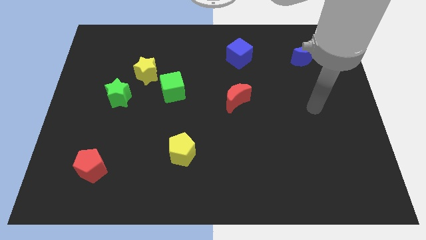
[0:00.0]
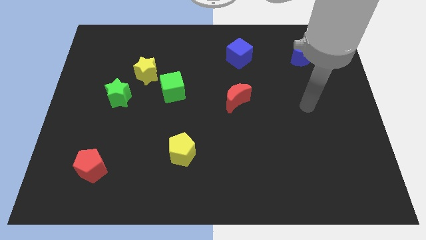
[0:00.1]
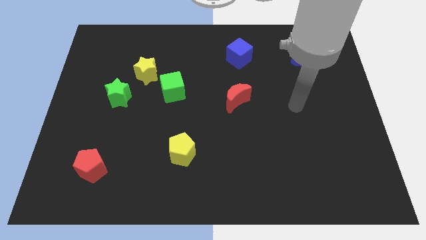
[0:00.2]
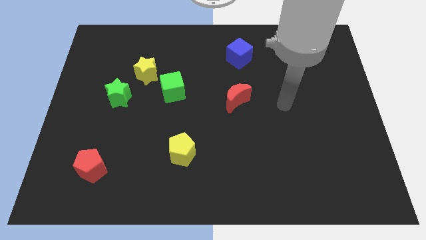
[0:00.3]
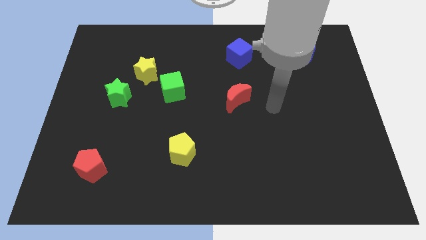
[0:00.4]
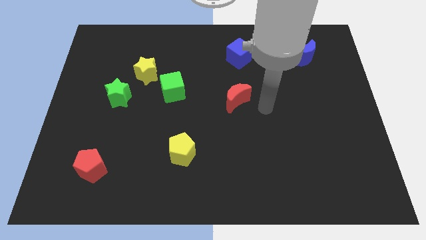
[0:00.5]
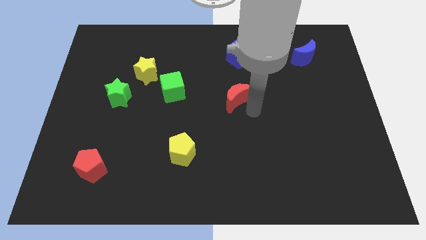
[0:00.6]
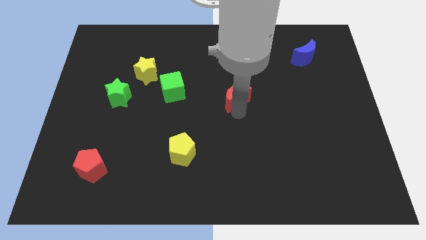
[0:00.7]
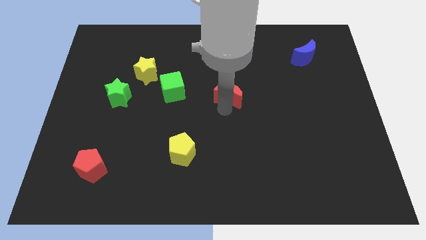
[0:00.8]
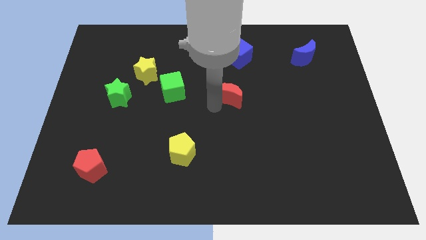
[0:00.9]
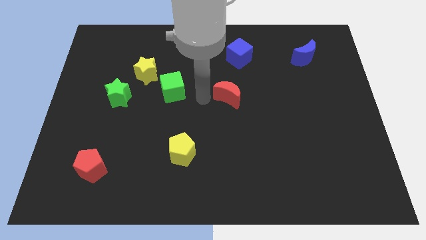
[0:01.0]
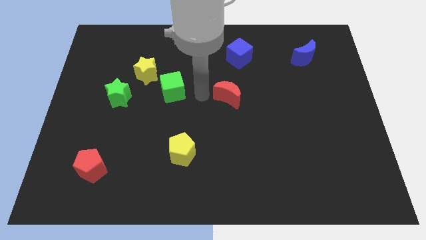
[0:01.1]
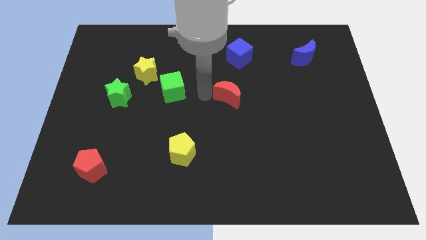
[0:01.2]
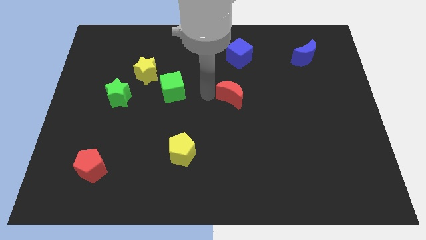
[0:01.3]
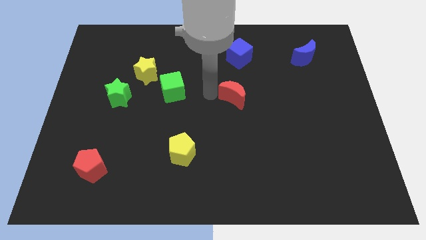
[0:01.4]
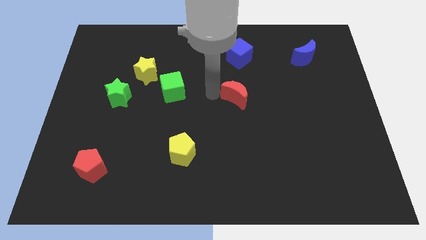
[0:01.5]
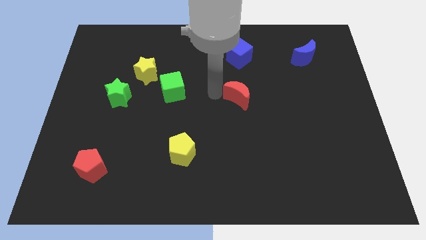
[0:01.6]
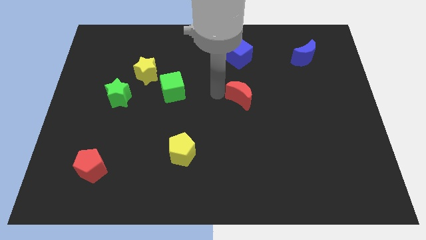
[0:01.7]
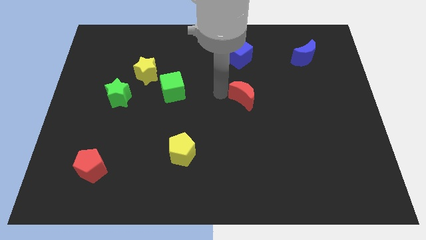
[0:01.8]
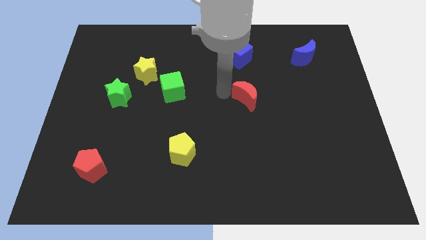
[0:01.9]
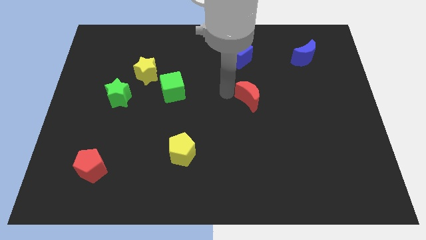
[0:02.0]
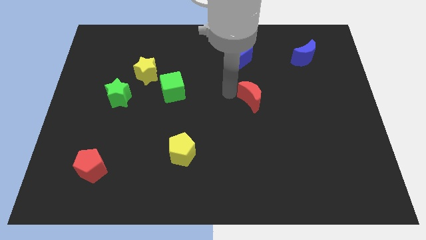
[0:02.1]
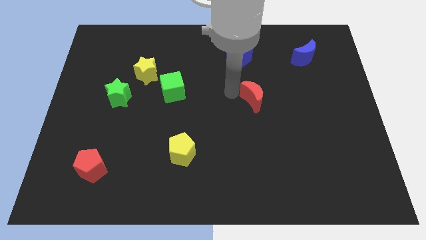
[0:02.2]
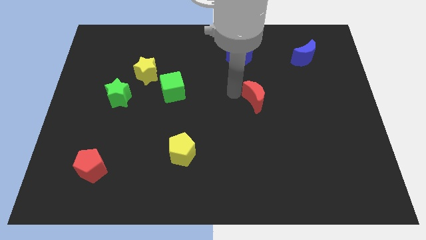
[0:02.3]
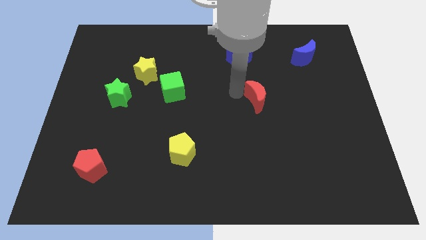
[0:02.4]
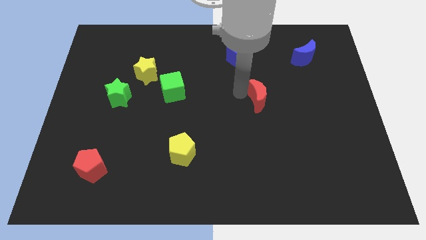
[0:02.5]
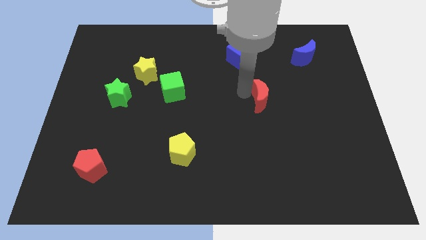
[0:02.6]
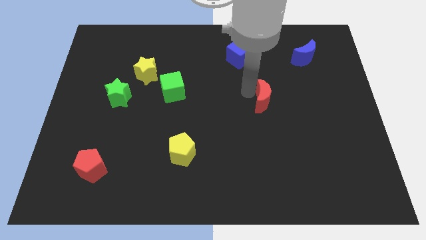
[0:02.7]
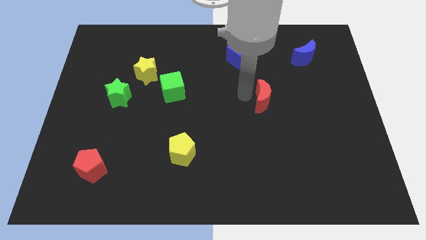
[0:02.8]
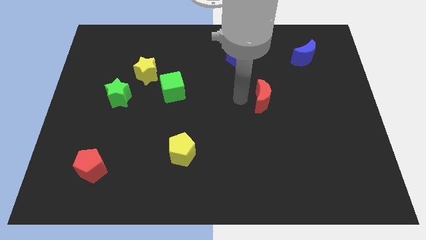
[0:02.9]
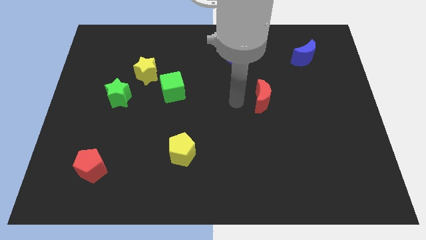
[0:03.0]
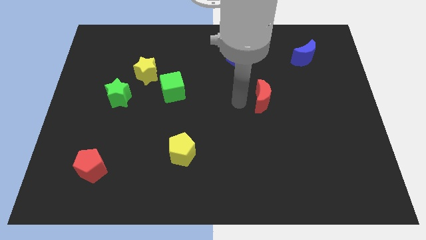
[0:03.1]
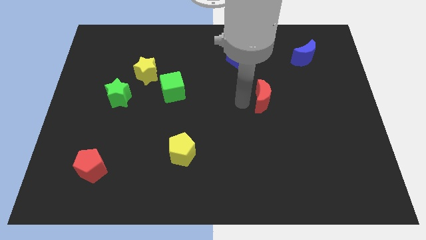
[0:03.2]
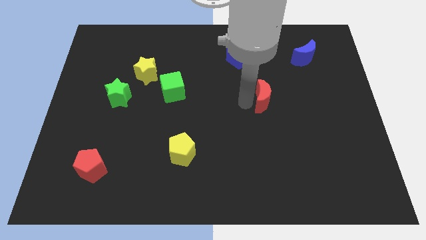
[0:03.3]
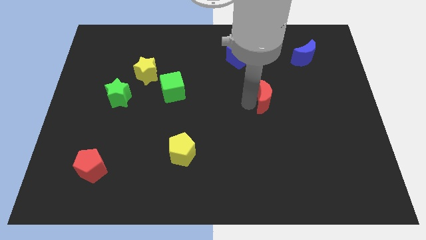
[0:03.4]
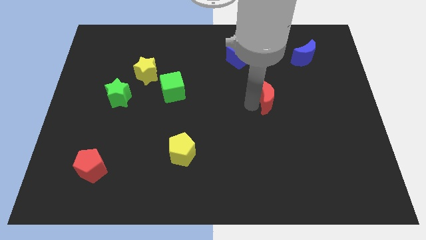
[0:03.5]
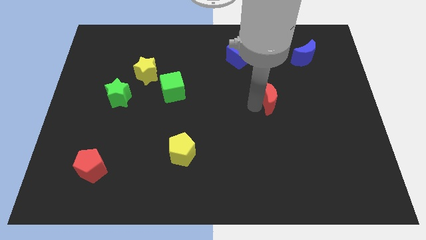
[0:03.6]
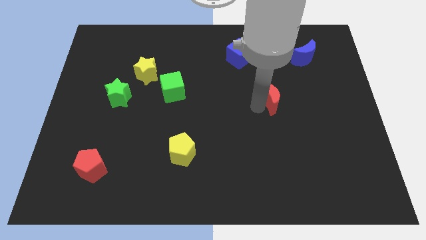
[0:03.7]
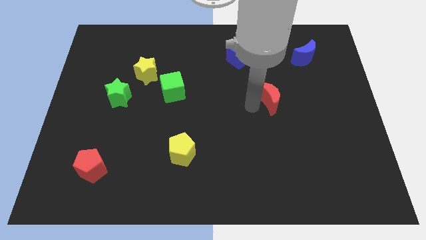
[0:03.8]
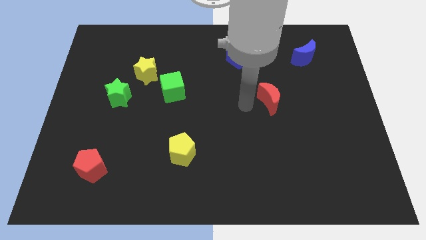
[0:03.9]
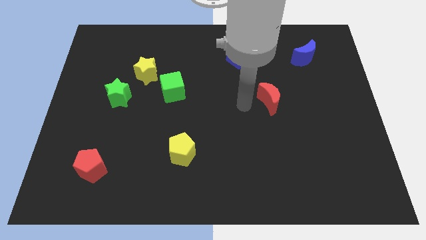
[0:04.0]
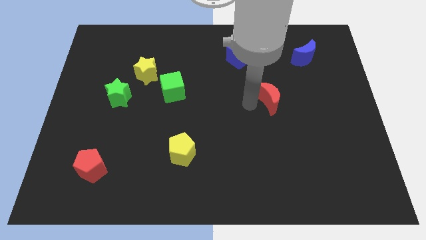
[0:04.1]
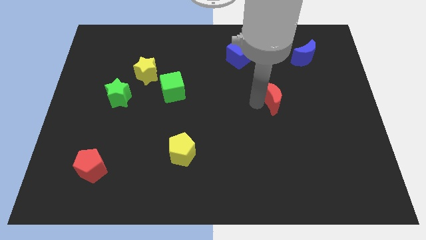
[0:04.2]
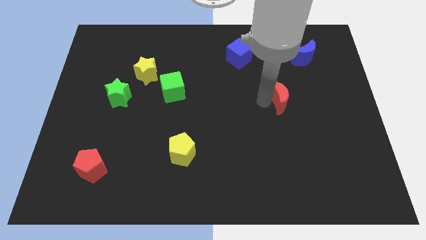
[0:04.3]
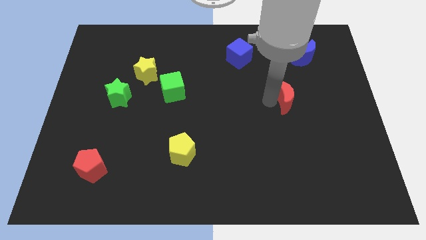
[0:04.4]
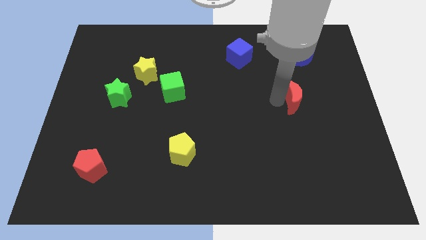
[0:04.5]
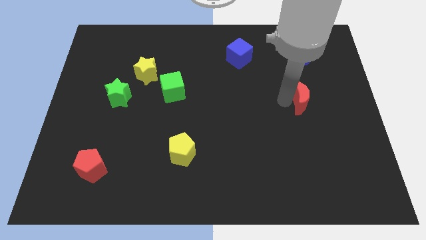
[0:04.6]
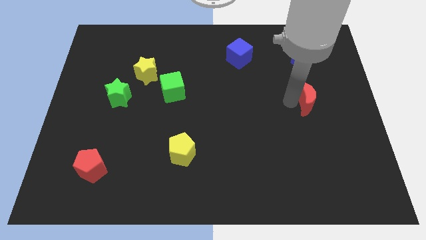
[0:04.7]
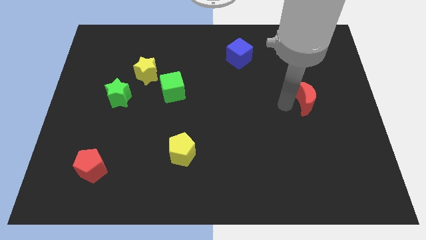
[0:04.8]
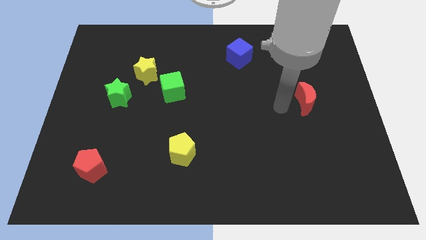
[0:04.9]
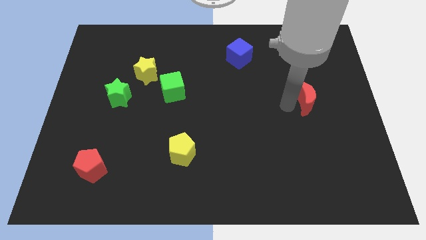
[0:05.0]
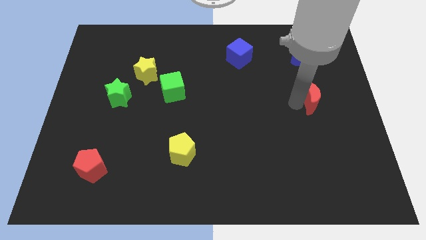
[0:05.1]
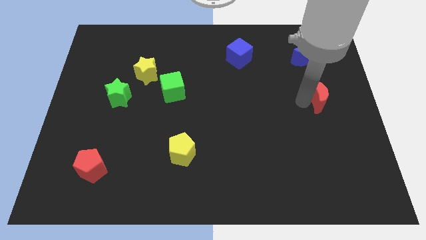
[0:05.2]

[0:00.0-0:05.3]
slide the red moon to the right side of the board

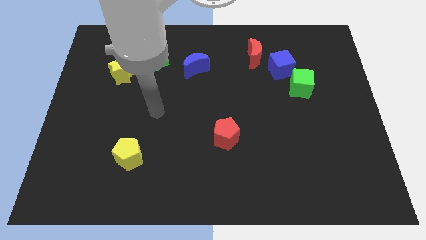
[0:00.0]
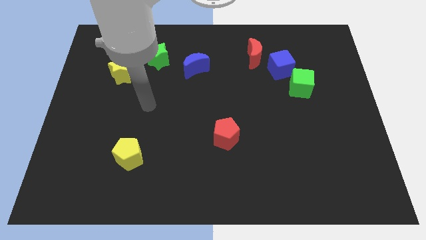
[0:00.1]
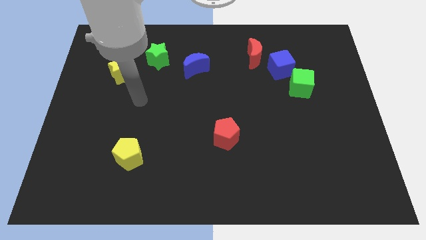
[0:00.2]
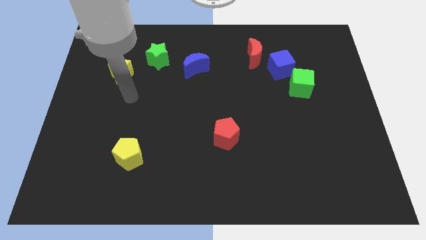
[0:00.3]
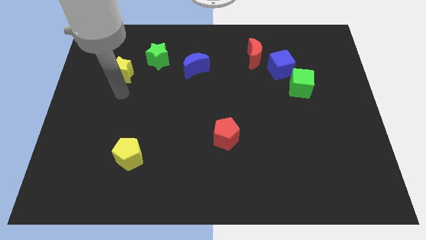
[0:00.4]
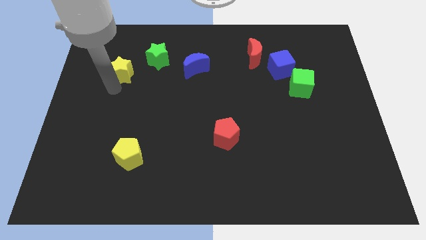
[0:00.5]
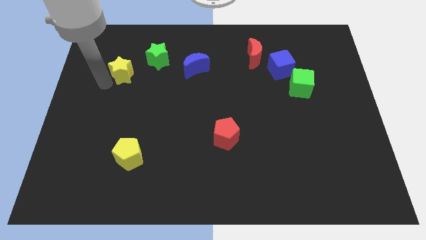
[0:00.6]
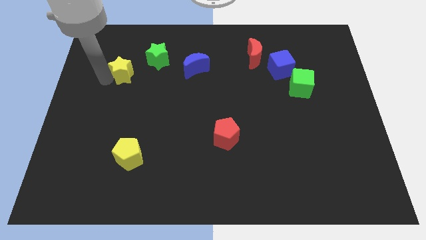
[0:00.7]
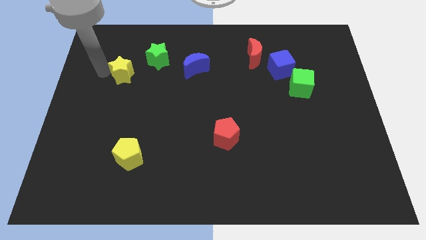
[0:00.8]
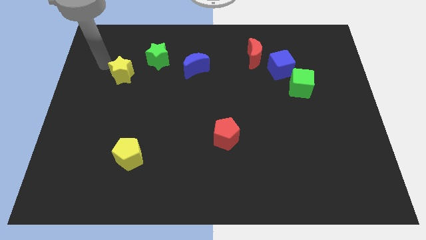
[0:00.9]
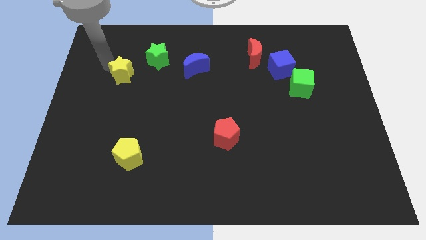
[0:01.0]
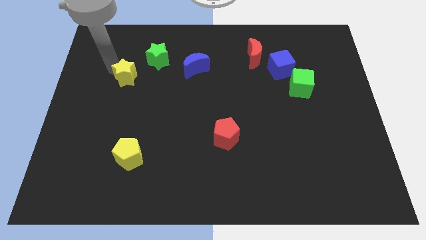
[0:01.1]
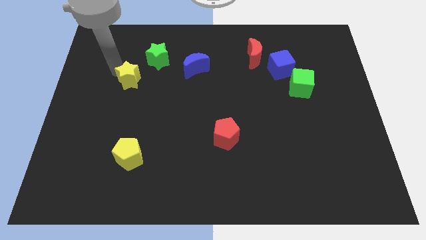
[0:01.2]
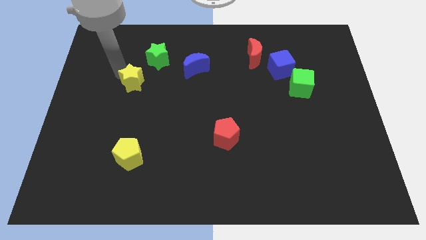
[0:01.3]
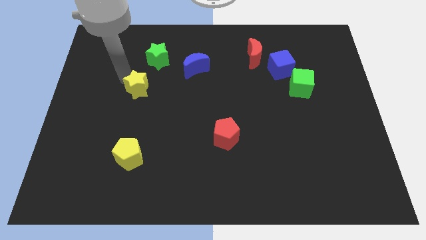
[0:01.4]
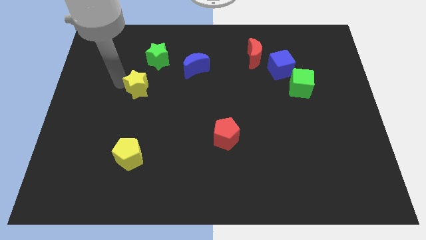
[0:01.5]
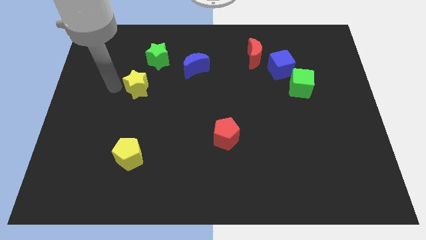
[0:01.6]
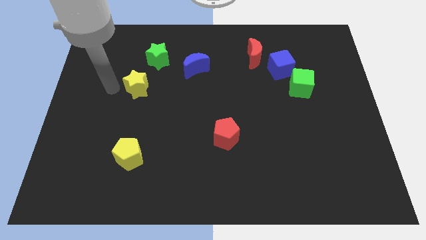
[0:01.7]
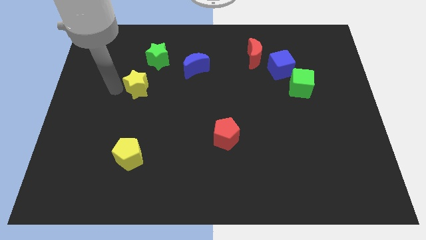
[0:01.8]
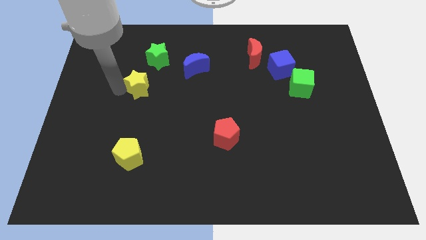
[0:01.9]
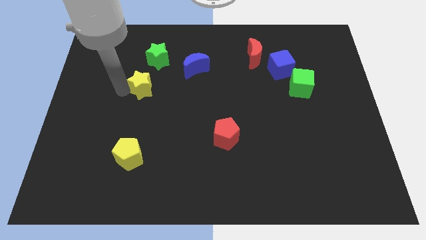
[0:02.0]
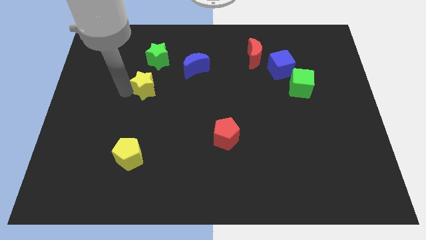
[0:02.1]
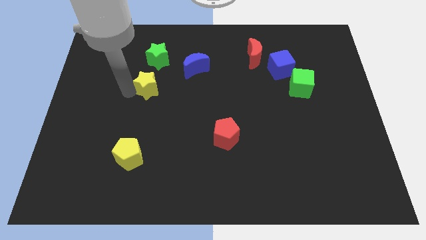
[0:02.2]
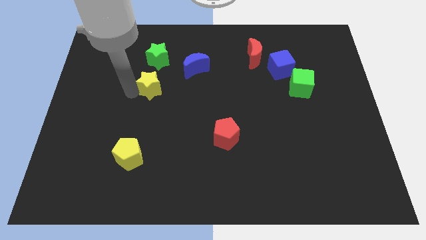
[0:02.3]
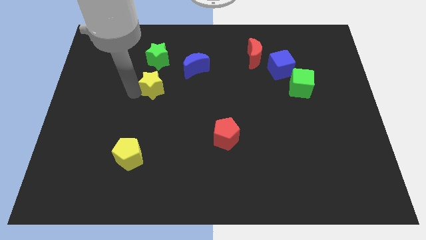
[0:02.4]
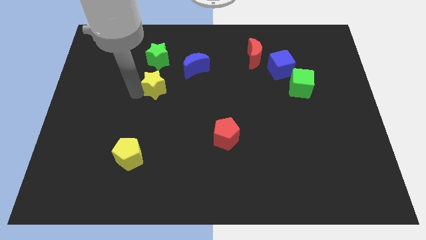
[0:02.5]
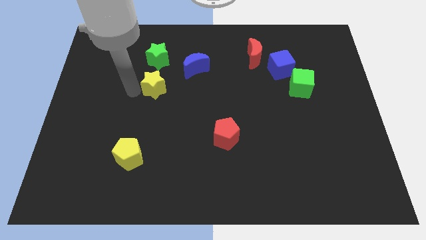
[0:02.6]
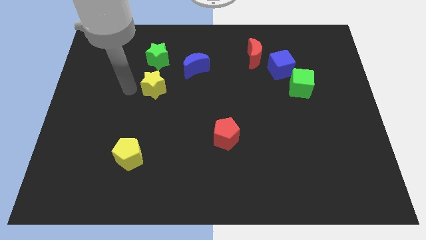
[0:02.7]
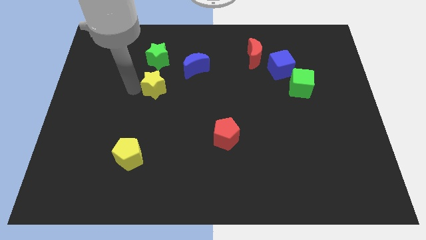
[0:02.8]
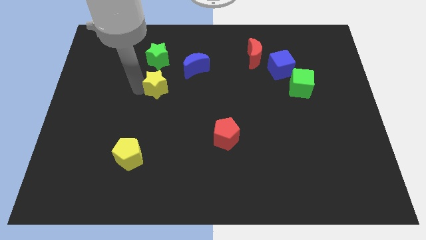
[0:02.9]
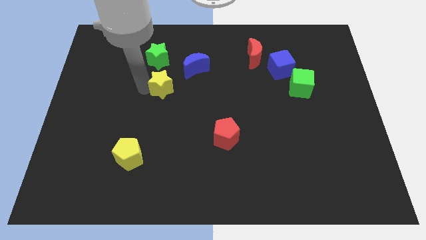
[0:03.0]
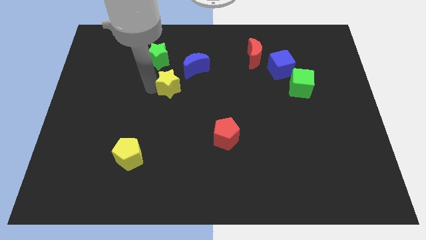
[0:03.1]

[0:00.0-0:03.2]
move the yellow star to the center of the board
